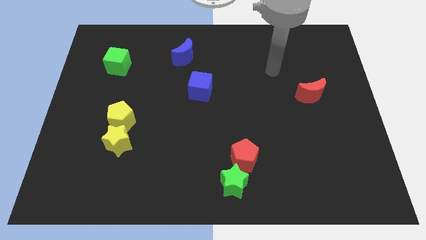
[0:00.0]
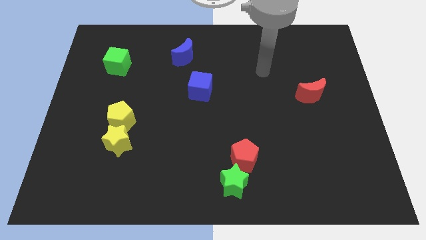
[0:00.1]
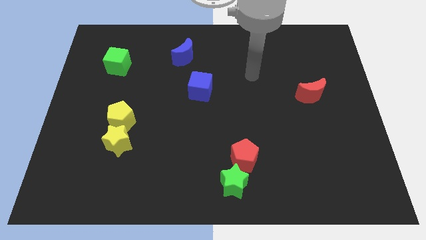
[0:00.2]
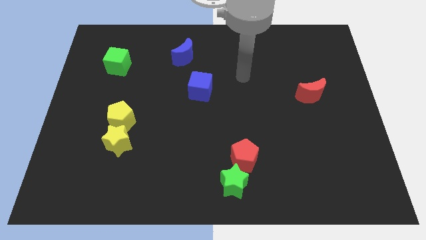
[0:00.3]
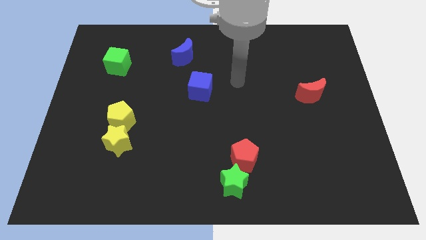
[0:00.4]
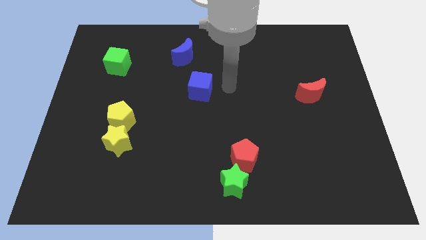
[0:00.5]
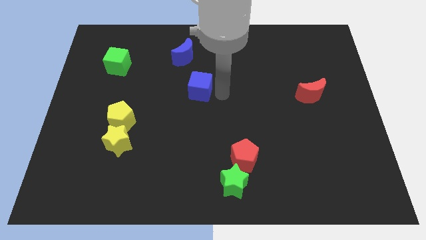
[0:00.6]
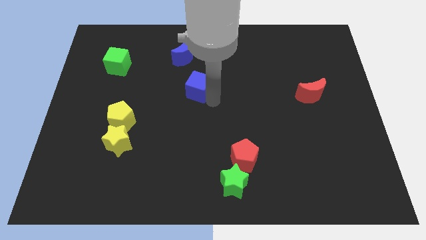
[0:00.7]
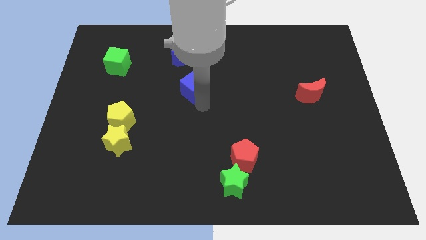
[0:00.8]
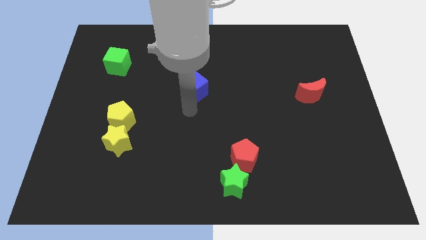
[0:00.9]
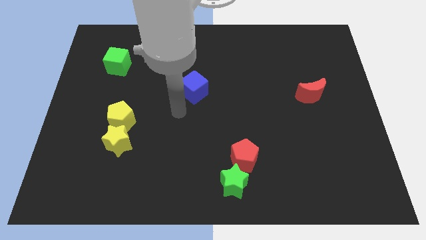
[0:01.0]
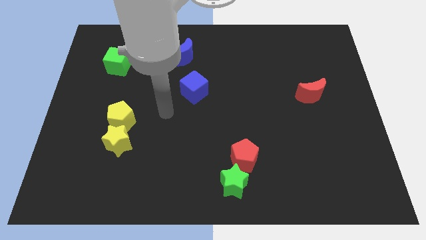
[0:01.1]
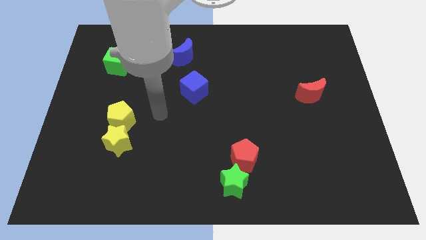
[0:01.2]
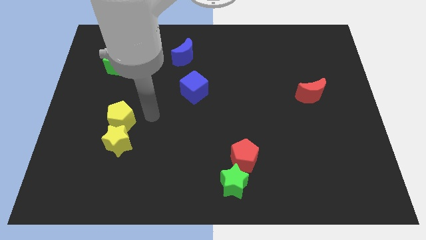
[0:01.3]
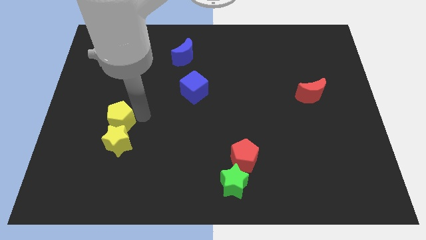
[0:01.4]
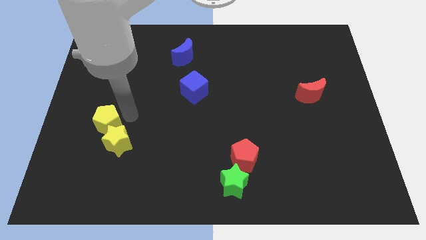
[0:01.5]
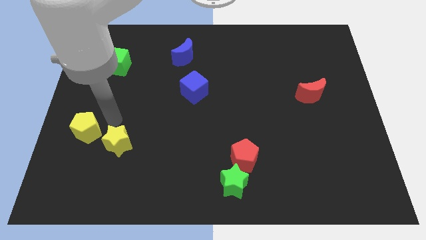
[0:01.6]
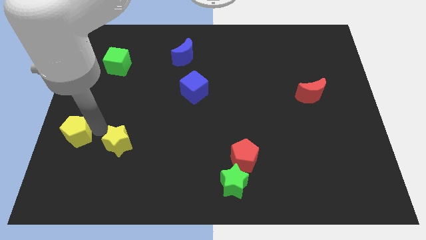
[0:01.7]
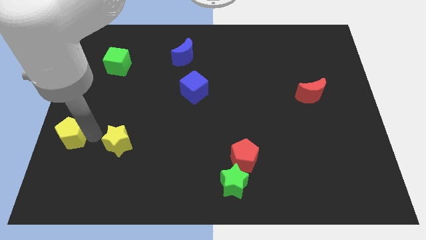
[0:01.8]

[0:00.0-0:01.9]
pull the yellow star apart from the yellow pentagon

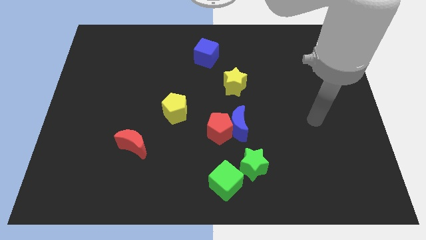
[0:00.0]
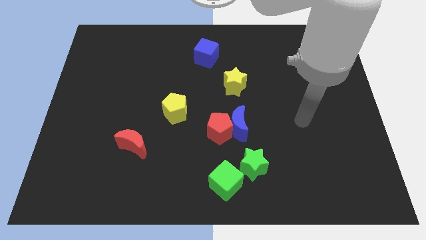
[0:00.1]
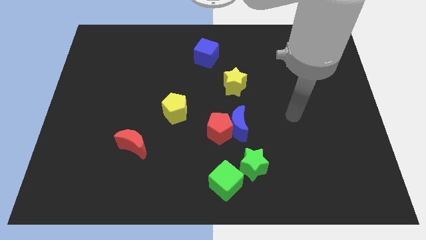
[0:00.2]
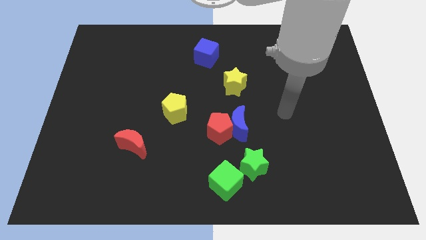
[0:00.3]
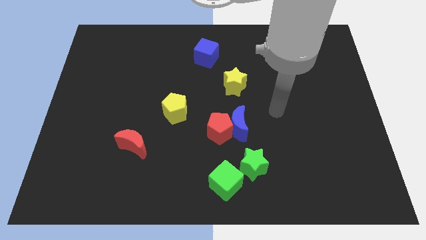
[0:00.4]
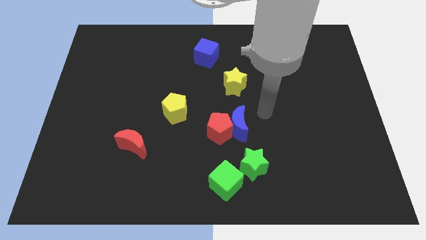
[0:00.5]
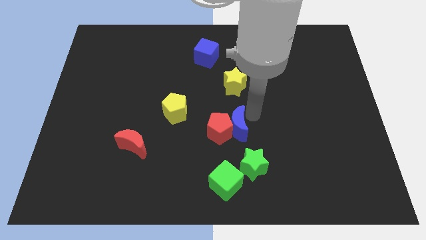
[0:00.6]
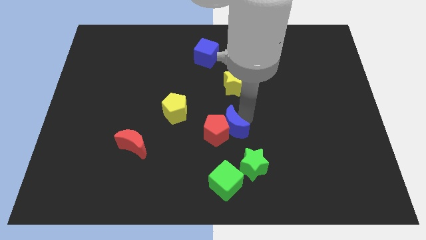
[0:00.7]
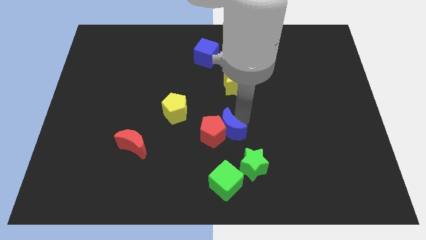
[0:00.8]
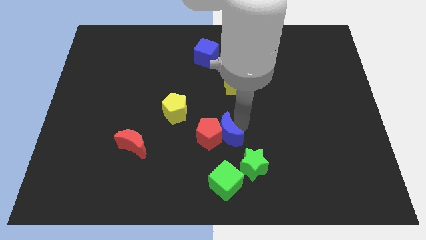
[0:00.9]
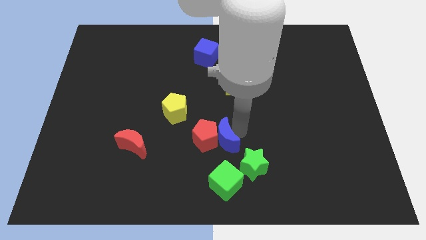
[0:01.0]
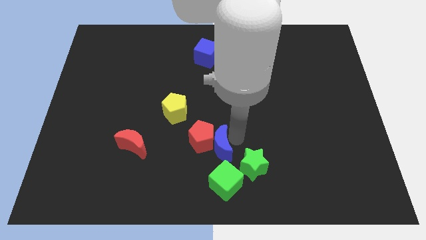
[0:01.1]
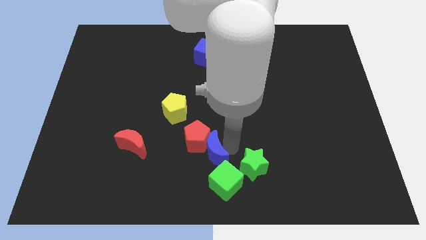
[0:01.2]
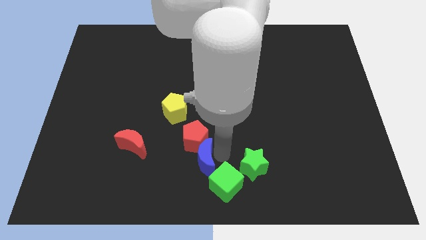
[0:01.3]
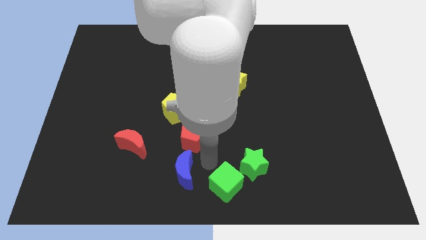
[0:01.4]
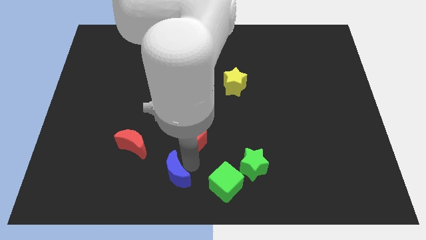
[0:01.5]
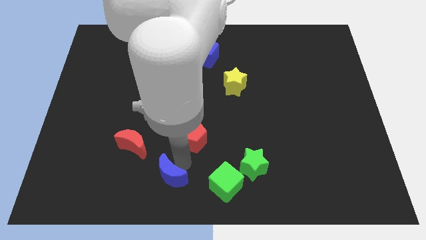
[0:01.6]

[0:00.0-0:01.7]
pull the red pentagon apart from the blue moon

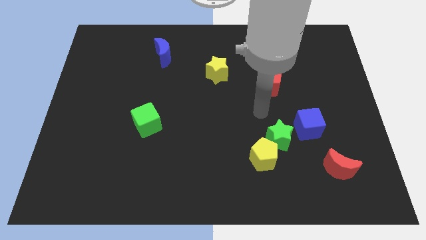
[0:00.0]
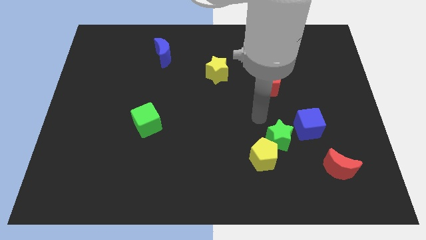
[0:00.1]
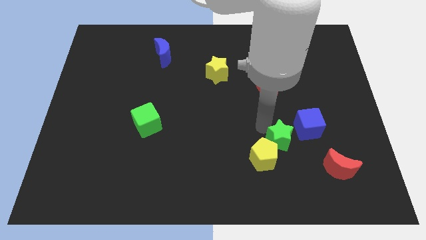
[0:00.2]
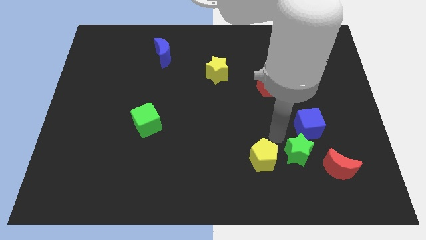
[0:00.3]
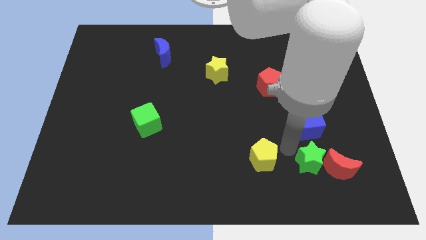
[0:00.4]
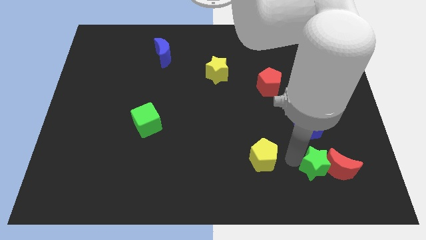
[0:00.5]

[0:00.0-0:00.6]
pull the yellow pentagon apart from the green star

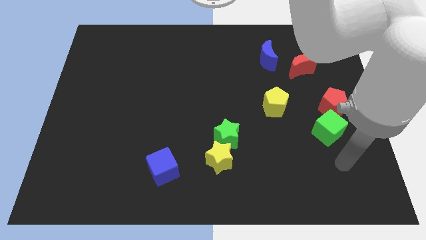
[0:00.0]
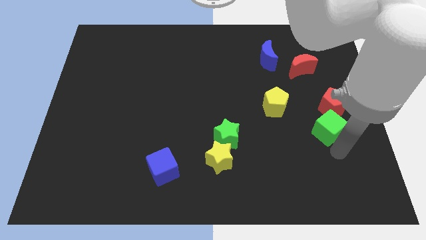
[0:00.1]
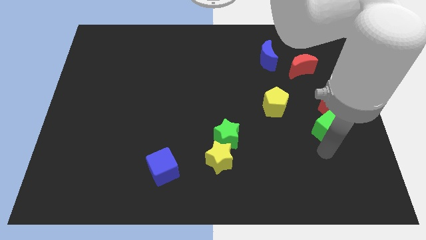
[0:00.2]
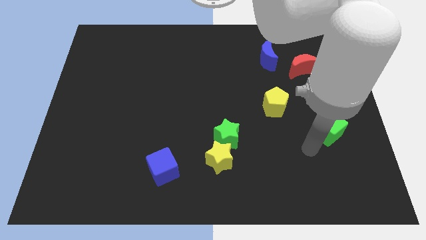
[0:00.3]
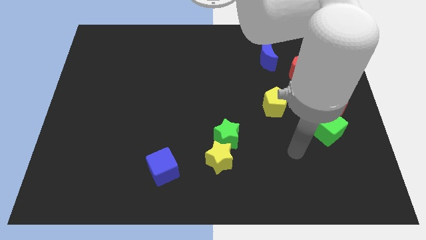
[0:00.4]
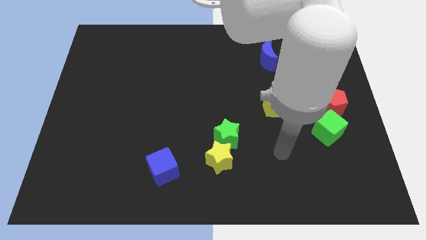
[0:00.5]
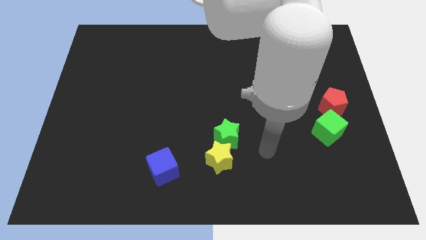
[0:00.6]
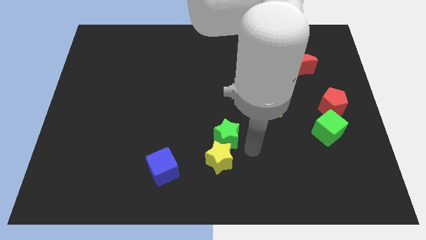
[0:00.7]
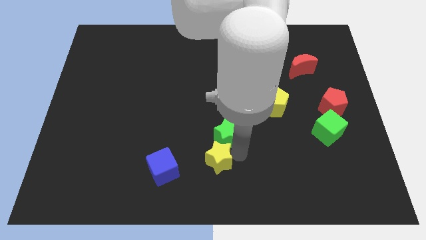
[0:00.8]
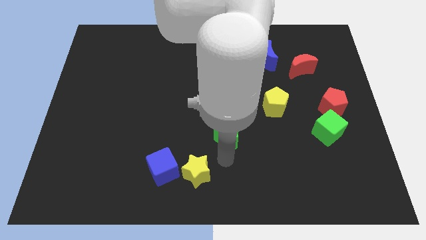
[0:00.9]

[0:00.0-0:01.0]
move the green star away from the yellow star

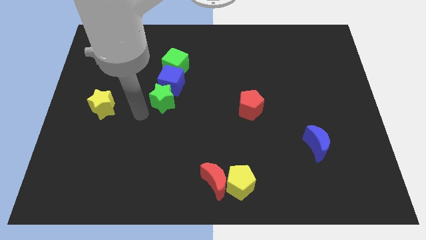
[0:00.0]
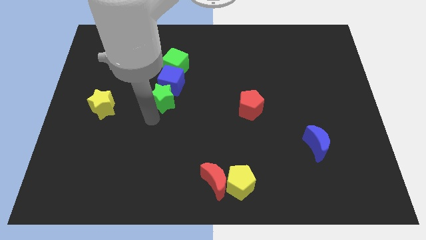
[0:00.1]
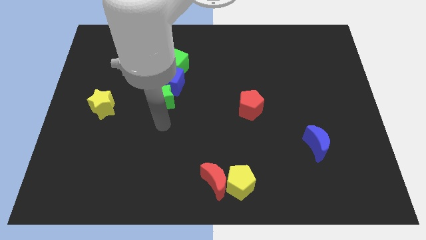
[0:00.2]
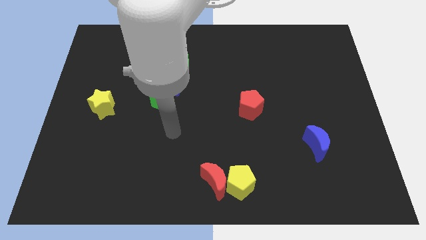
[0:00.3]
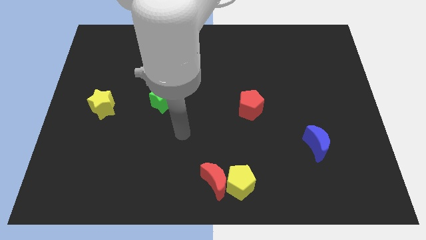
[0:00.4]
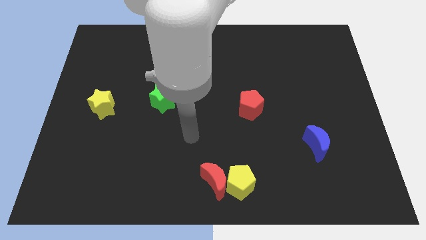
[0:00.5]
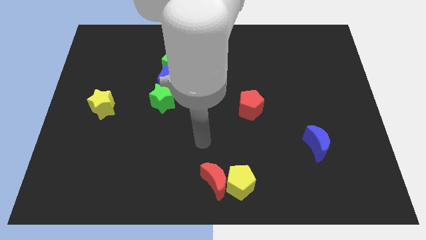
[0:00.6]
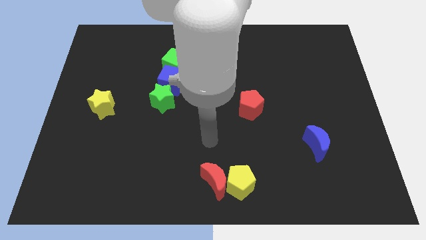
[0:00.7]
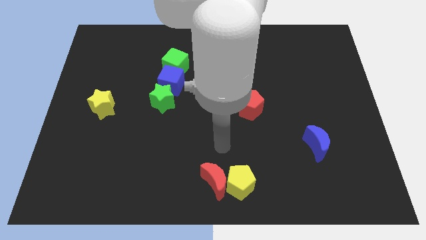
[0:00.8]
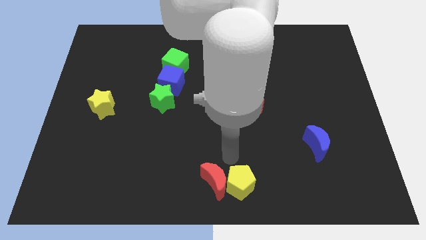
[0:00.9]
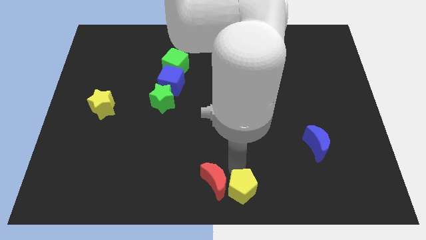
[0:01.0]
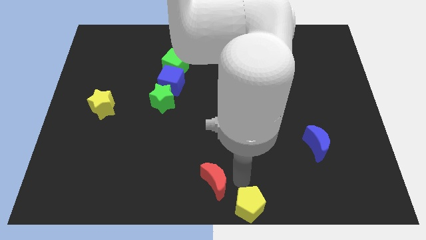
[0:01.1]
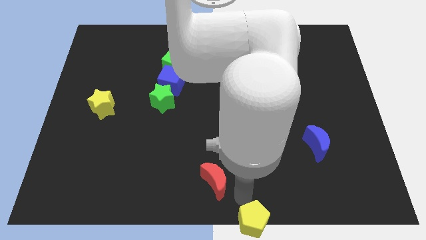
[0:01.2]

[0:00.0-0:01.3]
move the red moon away from the yellow pentagon

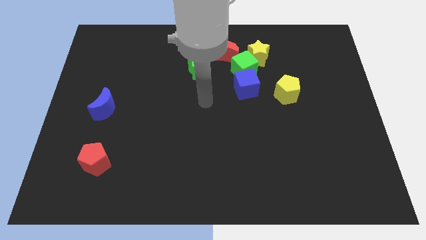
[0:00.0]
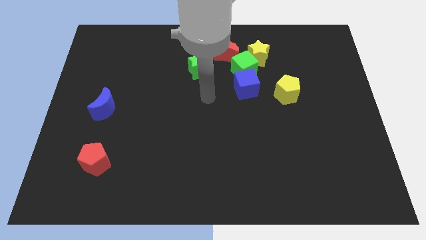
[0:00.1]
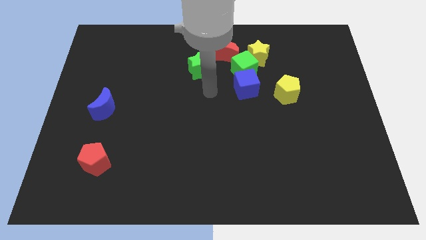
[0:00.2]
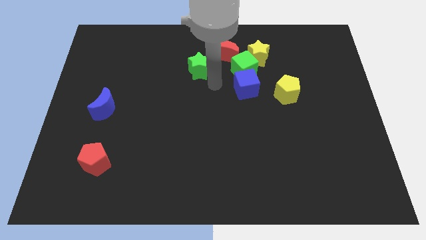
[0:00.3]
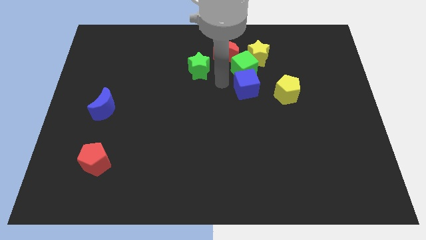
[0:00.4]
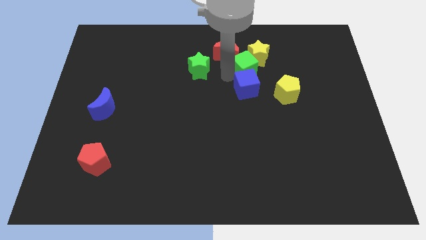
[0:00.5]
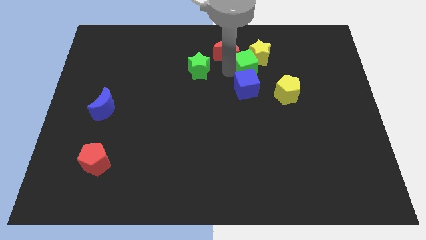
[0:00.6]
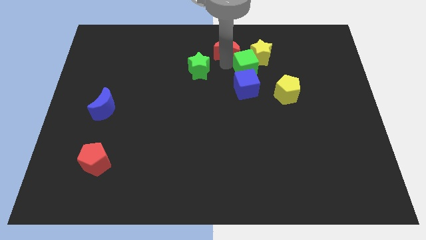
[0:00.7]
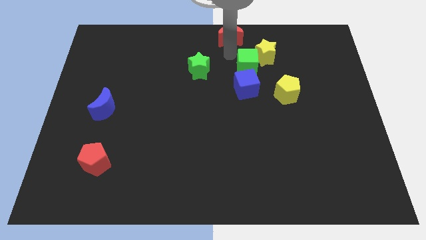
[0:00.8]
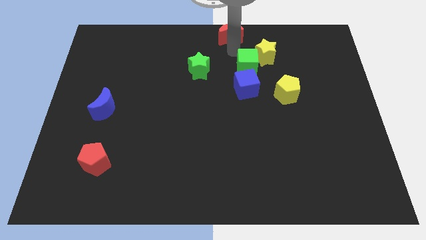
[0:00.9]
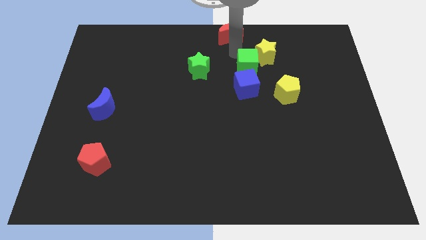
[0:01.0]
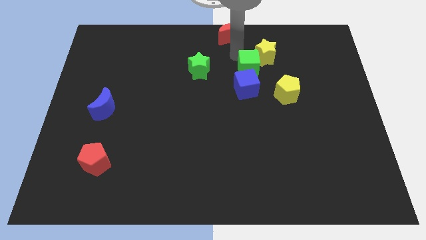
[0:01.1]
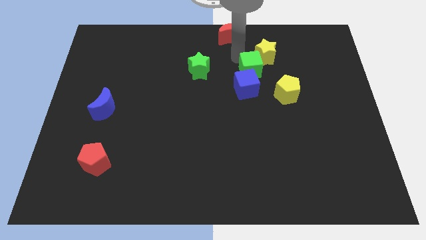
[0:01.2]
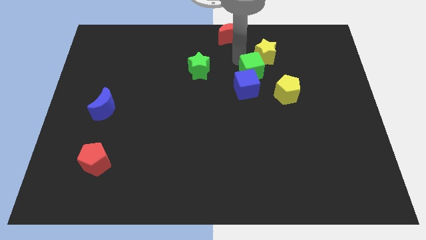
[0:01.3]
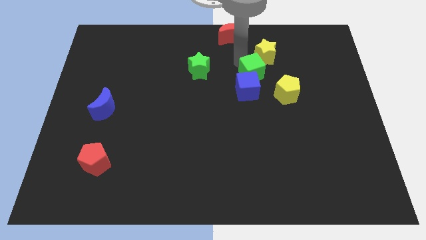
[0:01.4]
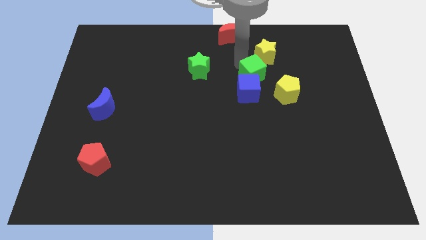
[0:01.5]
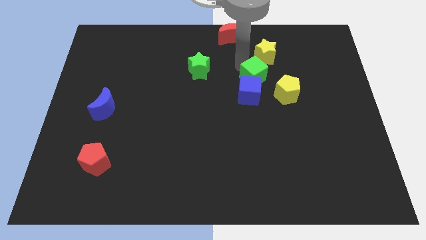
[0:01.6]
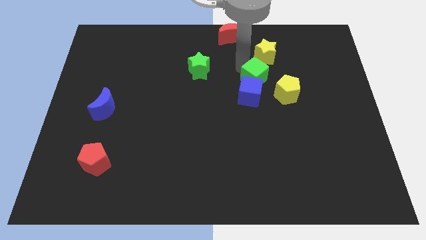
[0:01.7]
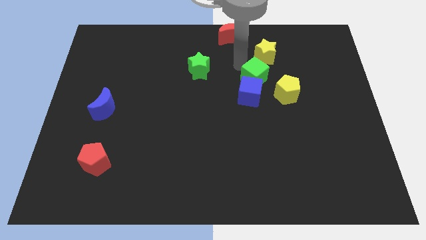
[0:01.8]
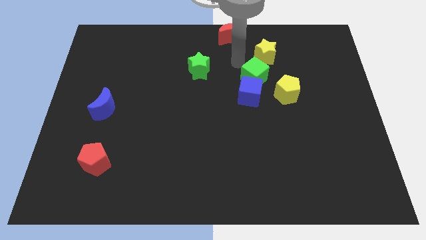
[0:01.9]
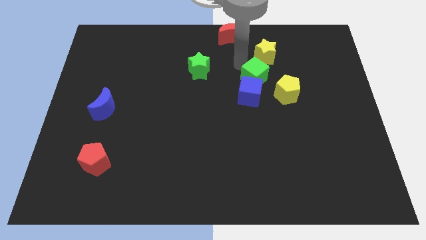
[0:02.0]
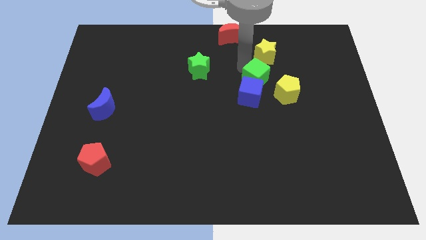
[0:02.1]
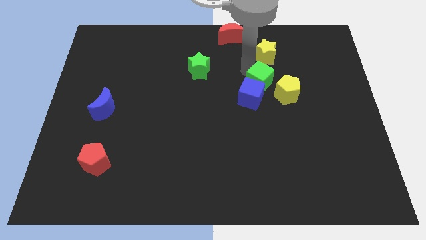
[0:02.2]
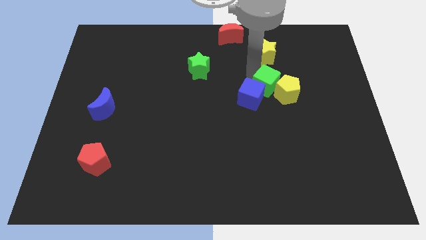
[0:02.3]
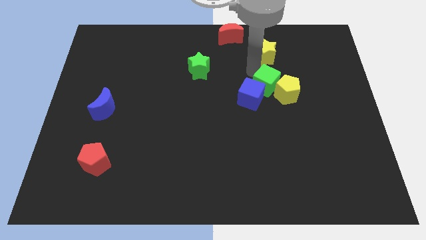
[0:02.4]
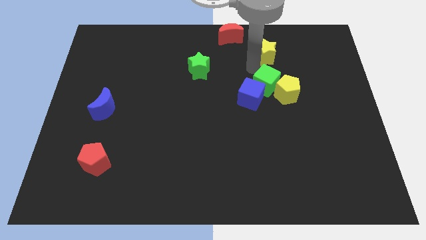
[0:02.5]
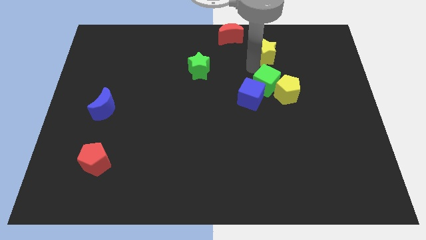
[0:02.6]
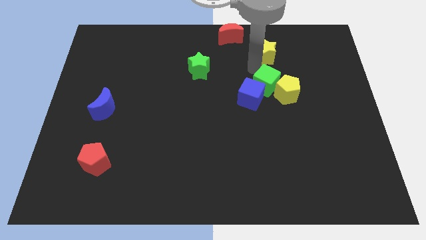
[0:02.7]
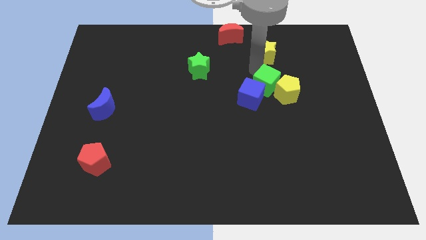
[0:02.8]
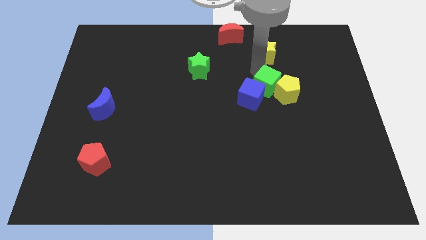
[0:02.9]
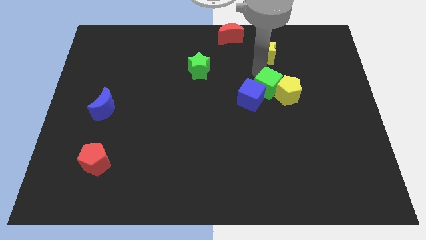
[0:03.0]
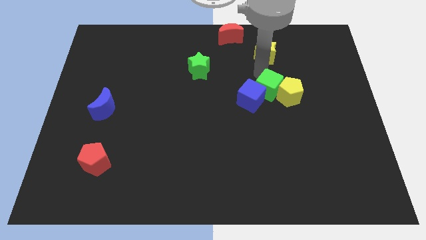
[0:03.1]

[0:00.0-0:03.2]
pull the green cube apart from the yellow star, blue cube, and red moon
